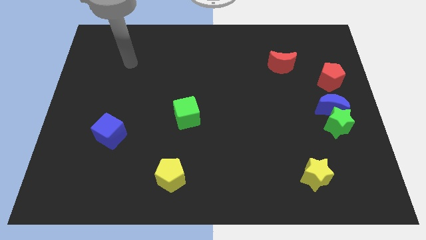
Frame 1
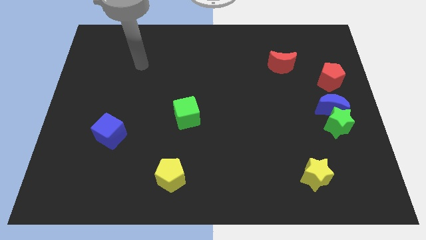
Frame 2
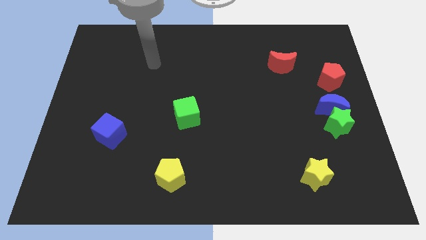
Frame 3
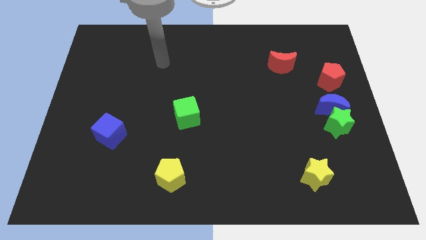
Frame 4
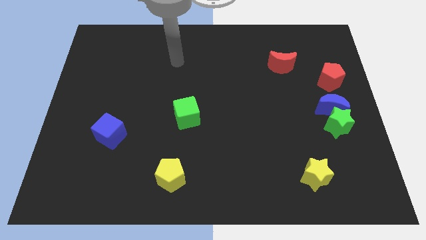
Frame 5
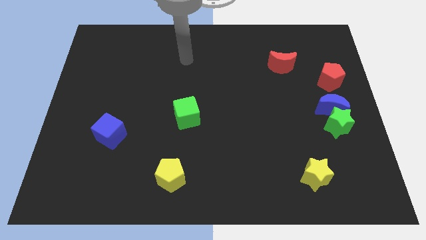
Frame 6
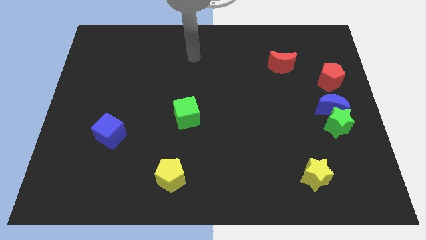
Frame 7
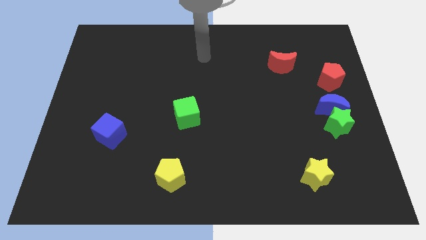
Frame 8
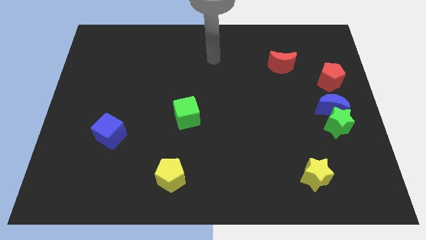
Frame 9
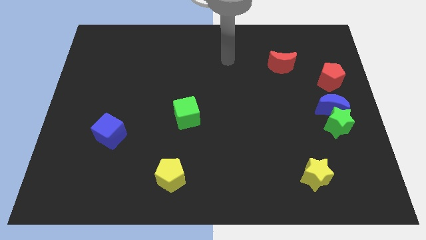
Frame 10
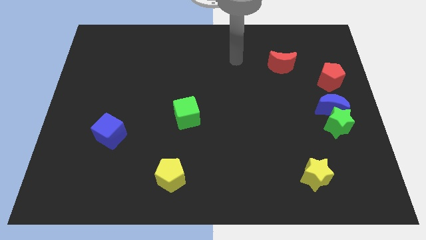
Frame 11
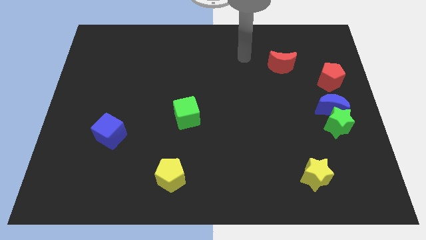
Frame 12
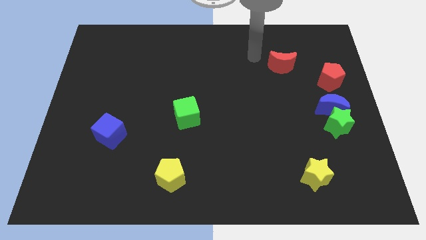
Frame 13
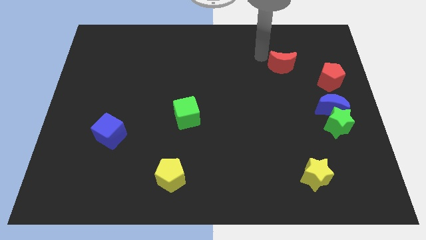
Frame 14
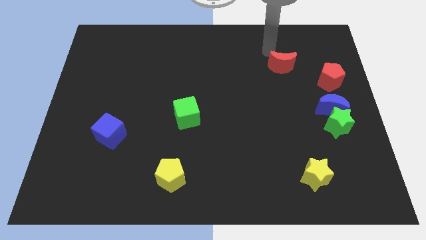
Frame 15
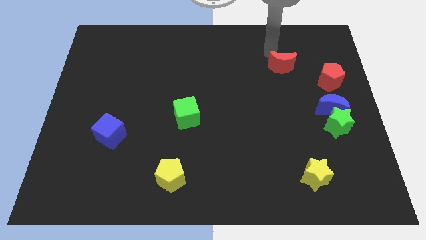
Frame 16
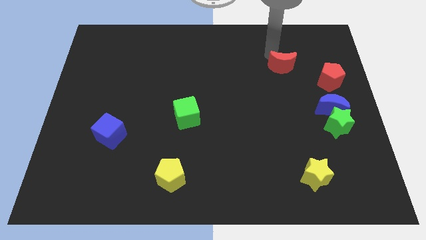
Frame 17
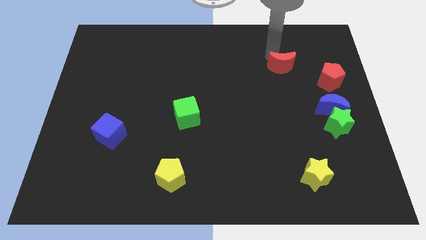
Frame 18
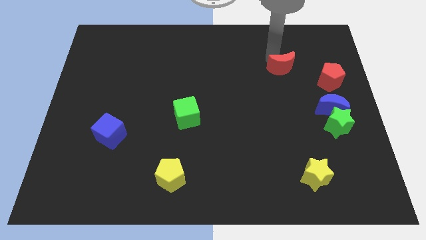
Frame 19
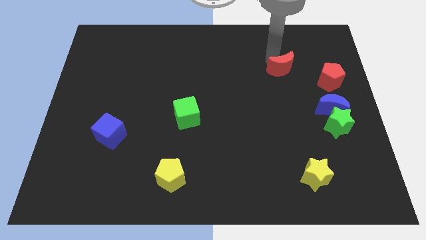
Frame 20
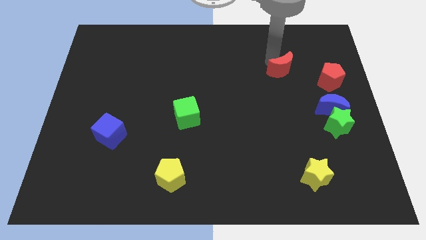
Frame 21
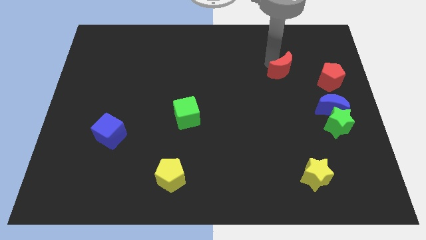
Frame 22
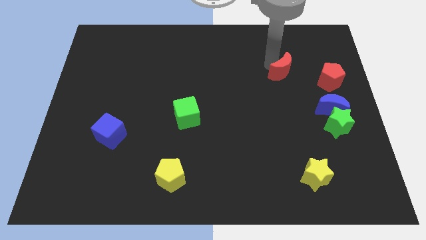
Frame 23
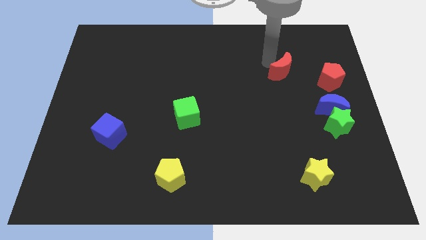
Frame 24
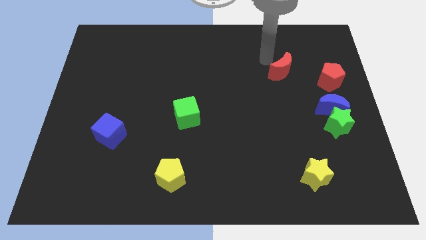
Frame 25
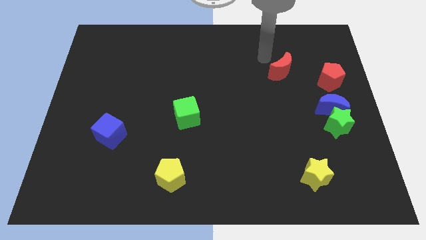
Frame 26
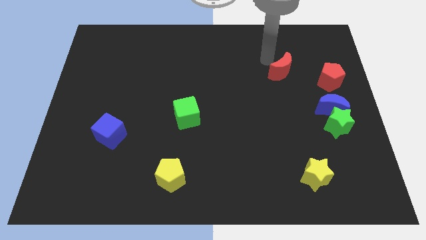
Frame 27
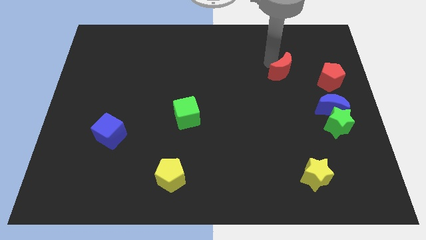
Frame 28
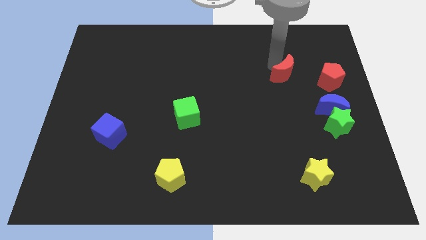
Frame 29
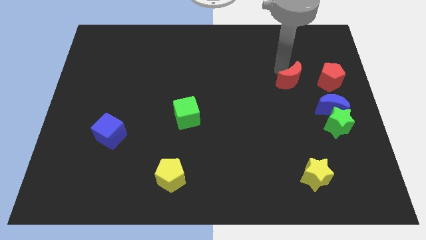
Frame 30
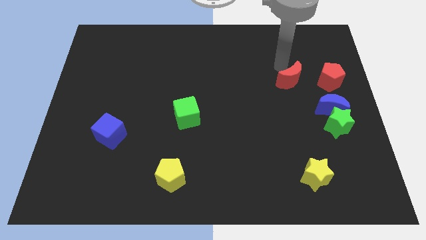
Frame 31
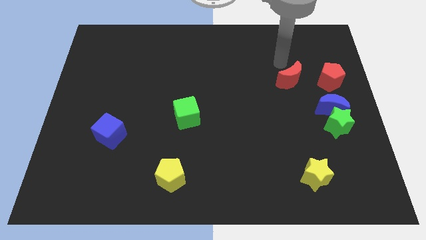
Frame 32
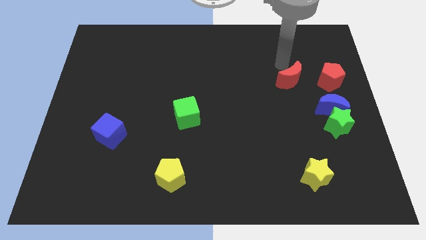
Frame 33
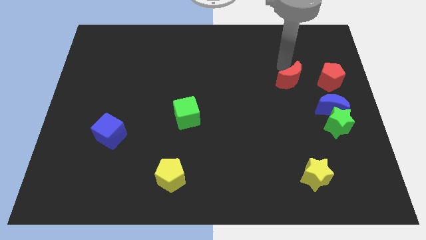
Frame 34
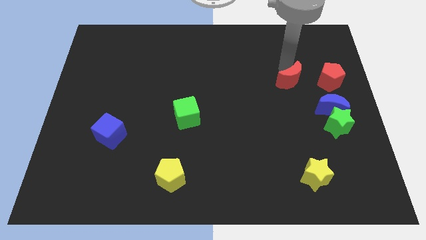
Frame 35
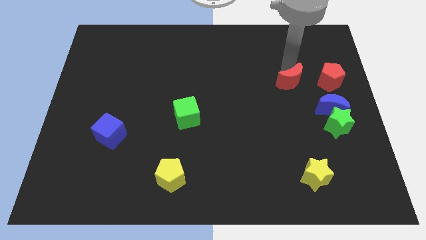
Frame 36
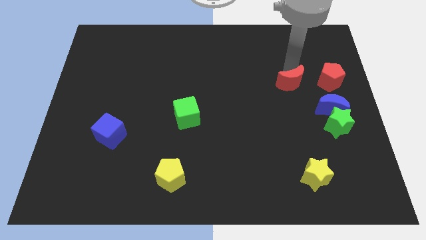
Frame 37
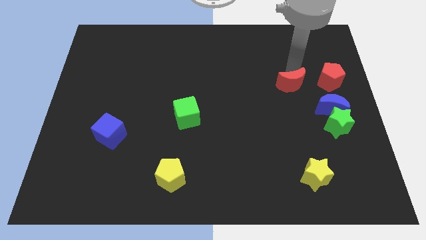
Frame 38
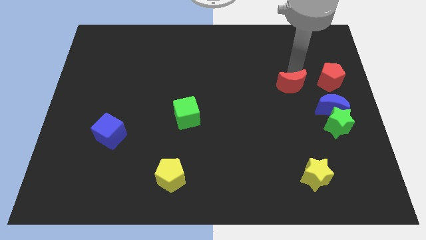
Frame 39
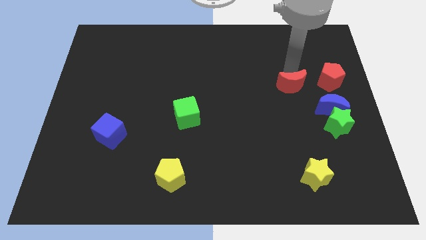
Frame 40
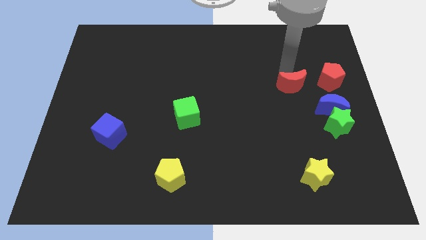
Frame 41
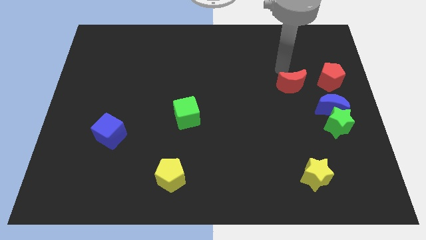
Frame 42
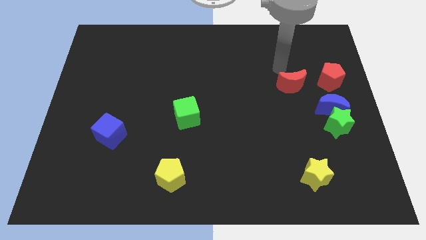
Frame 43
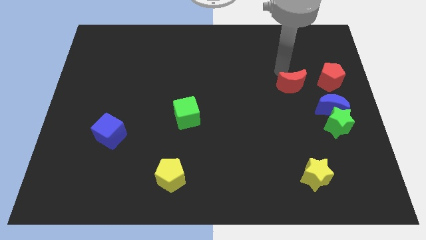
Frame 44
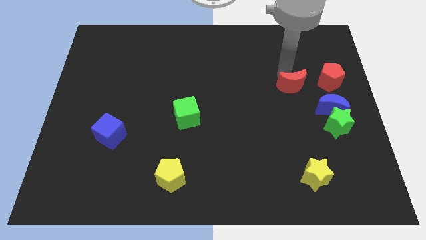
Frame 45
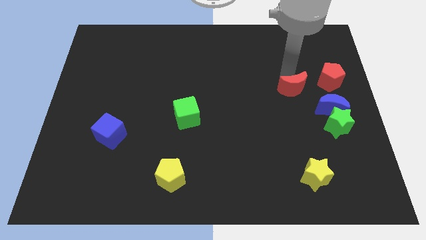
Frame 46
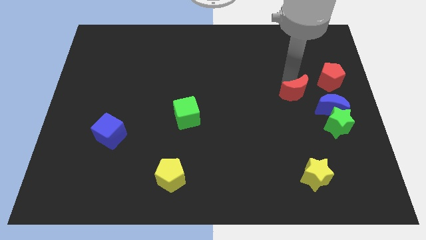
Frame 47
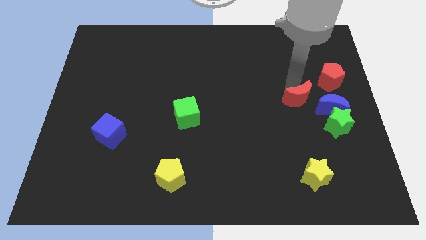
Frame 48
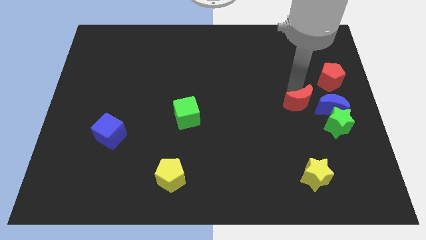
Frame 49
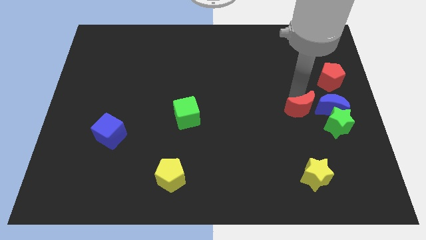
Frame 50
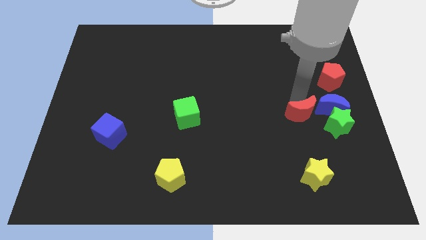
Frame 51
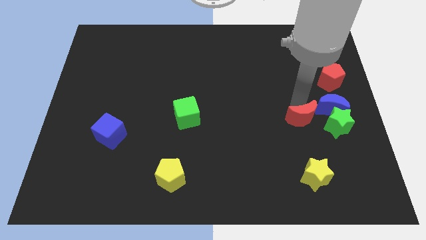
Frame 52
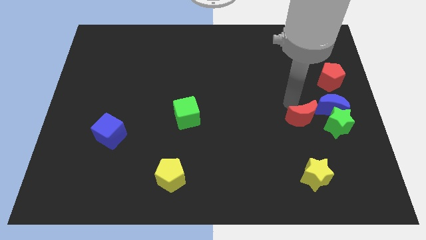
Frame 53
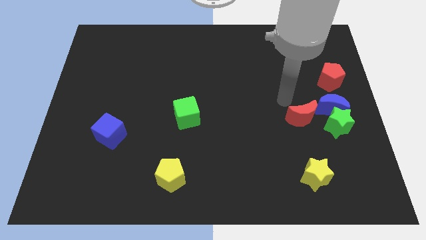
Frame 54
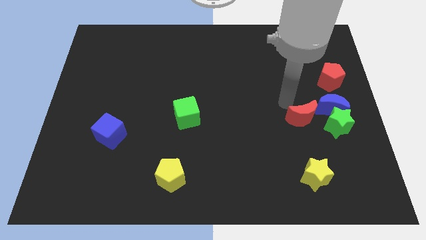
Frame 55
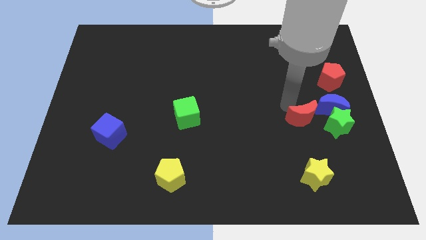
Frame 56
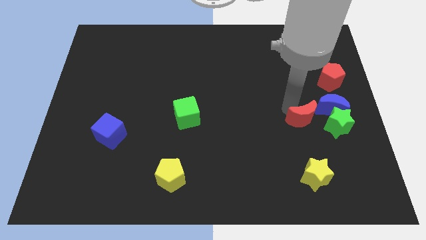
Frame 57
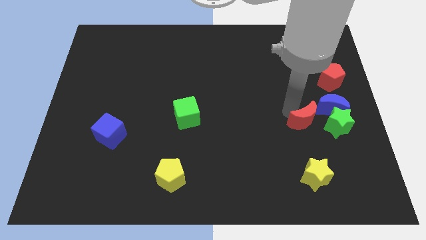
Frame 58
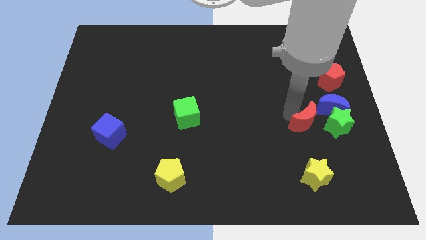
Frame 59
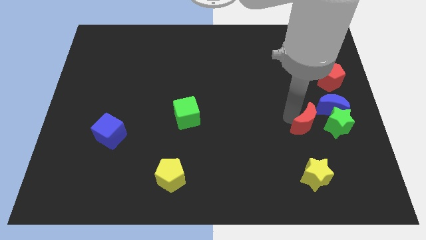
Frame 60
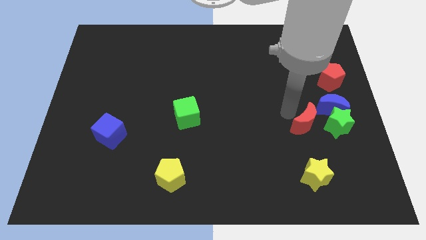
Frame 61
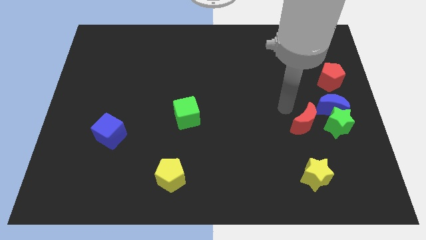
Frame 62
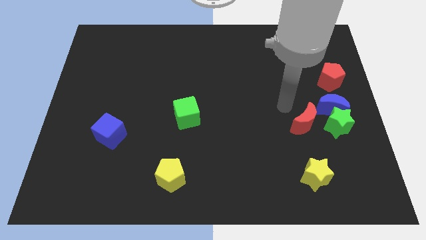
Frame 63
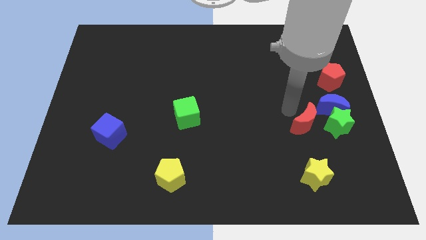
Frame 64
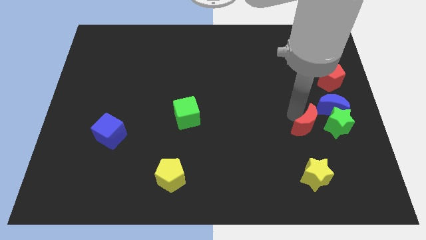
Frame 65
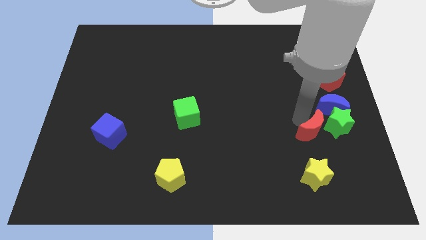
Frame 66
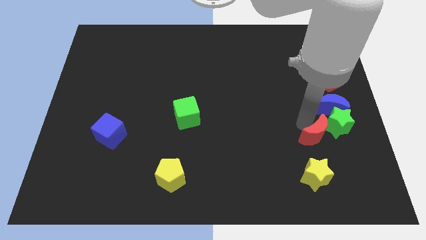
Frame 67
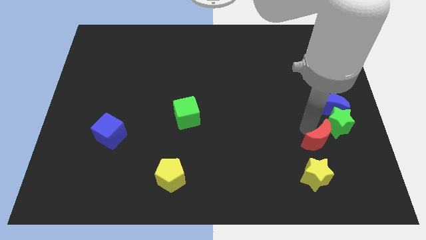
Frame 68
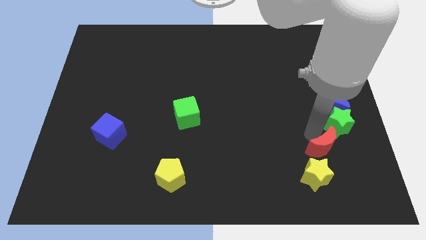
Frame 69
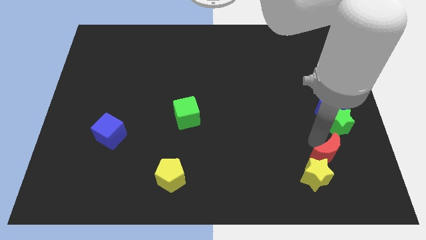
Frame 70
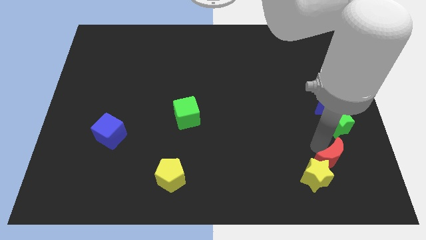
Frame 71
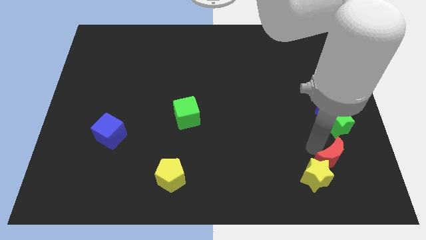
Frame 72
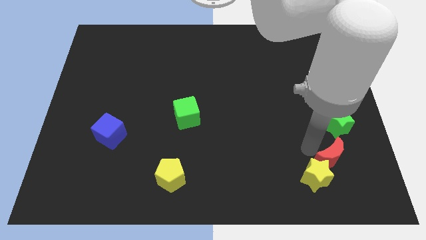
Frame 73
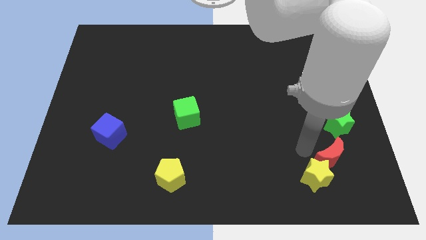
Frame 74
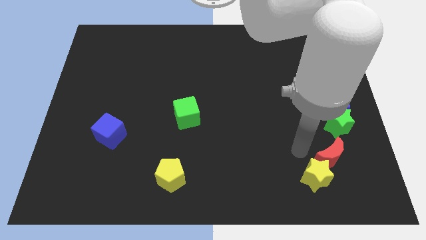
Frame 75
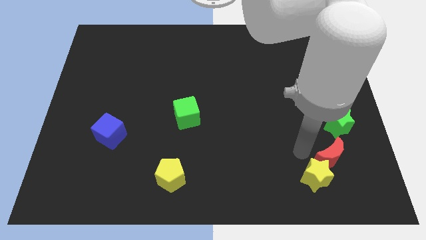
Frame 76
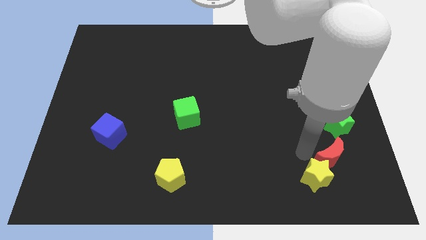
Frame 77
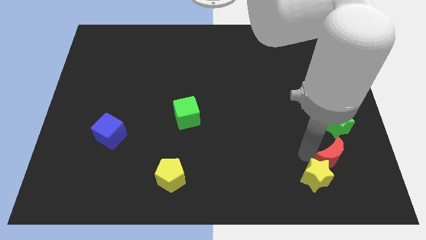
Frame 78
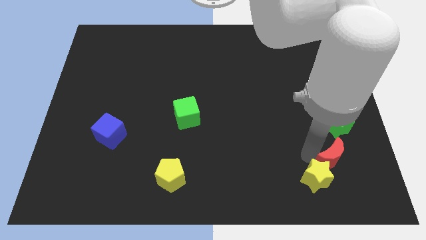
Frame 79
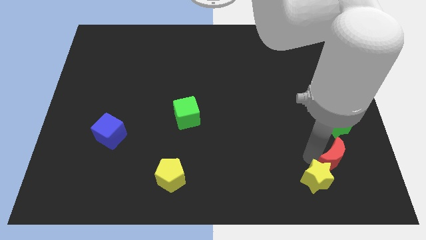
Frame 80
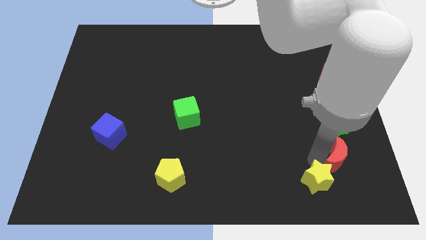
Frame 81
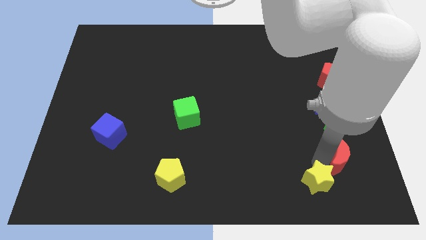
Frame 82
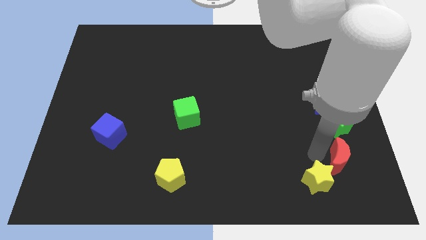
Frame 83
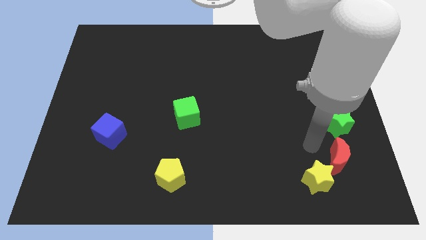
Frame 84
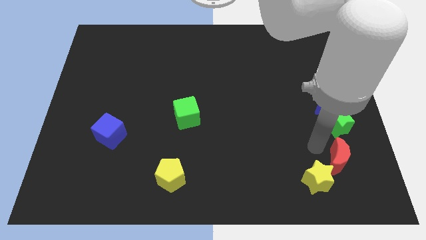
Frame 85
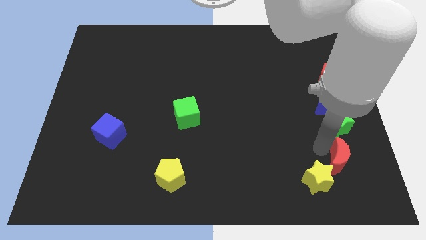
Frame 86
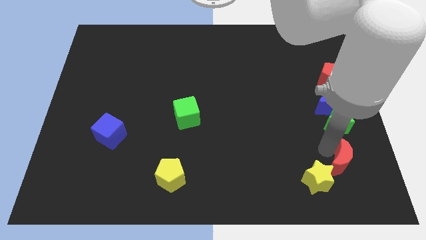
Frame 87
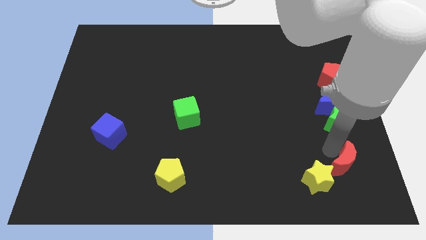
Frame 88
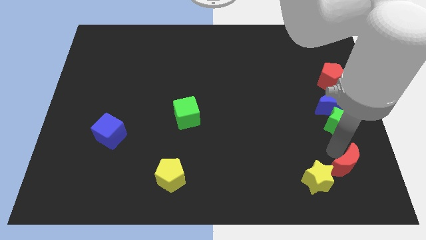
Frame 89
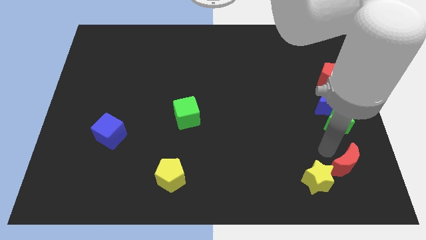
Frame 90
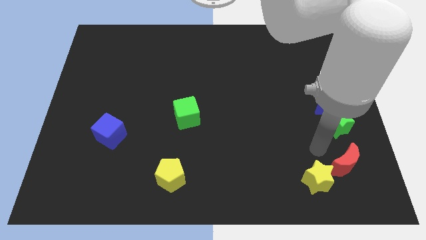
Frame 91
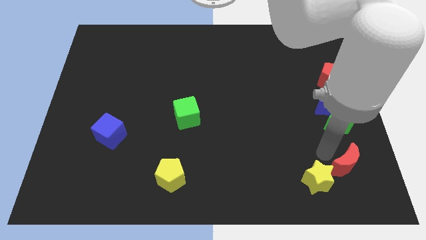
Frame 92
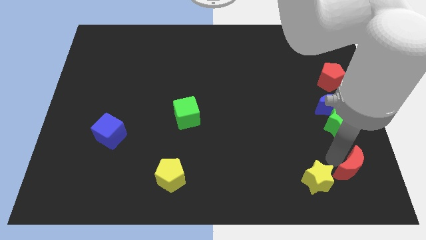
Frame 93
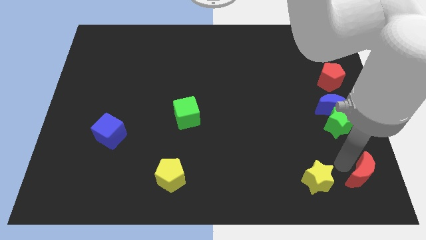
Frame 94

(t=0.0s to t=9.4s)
slide the red moon to the bottom right of the board
